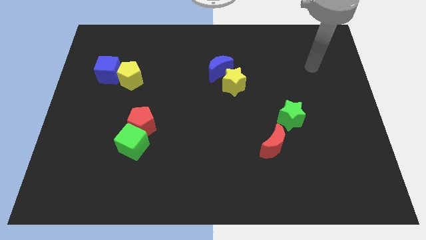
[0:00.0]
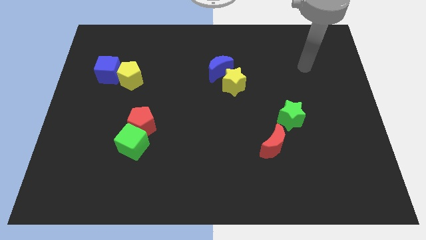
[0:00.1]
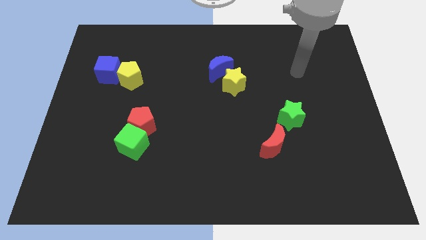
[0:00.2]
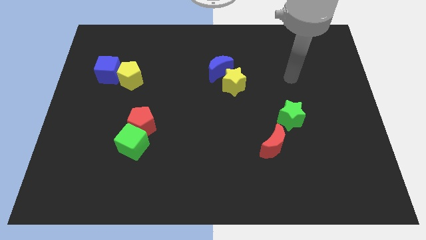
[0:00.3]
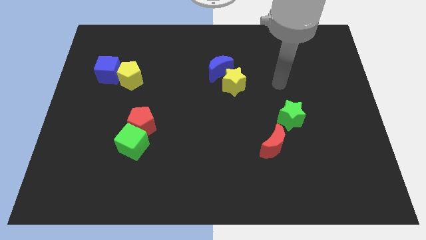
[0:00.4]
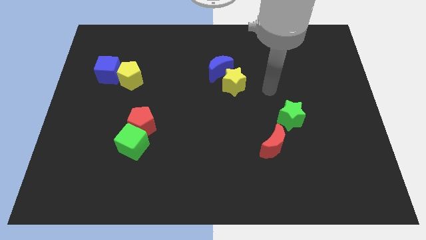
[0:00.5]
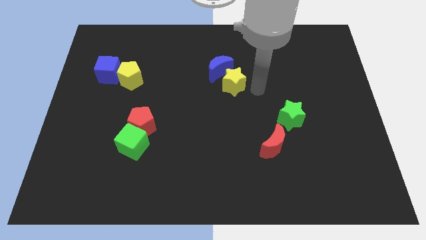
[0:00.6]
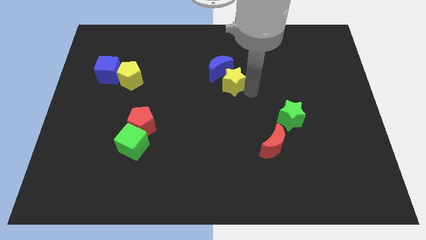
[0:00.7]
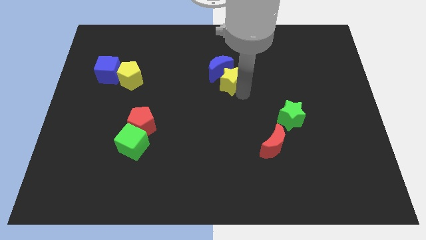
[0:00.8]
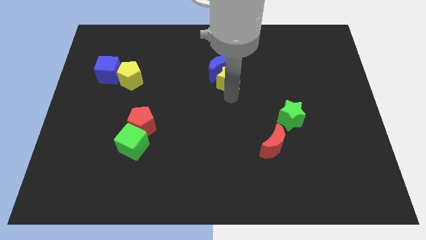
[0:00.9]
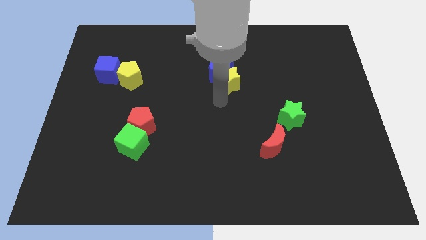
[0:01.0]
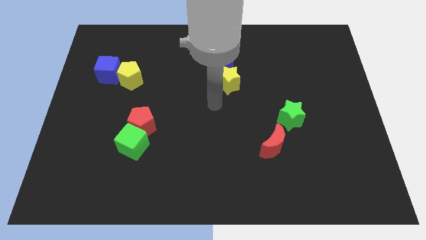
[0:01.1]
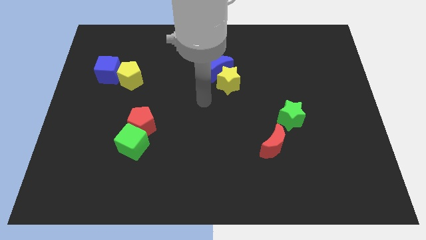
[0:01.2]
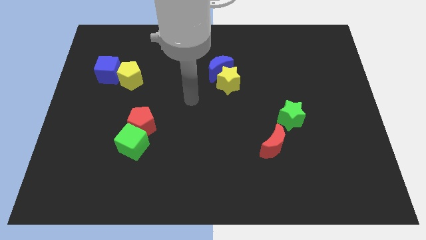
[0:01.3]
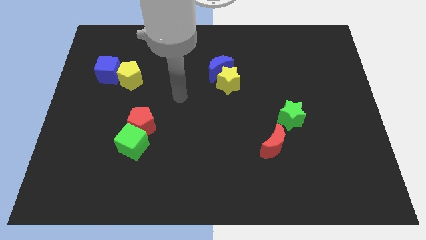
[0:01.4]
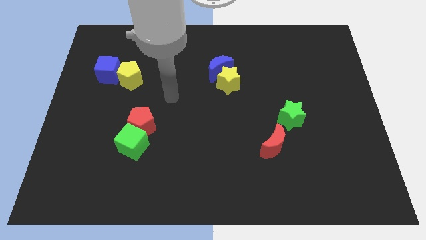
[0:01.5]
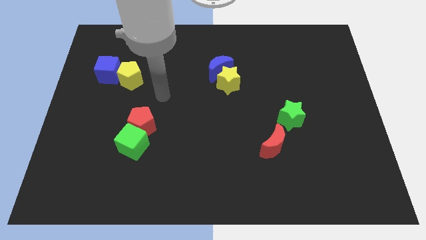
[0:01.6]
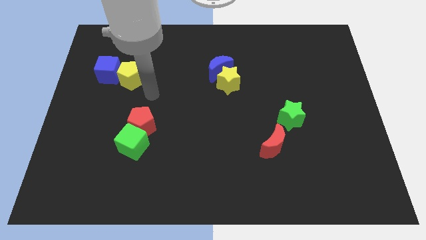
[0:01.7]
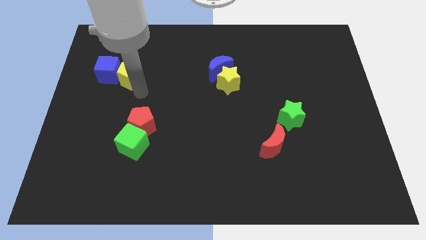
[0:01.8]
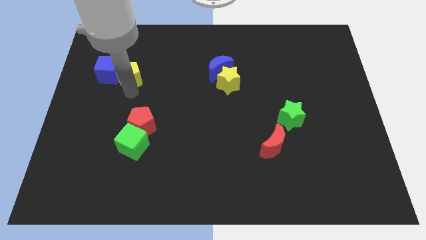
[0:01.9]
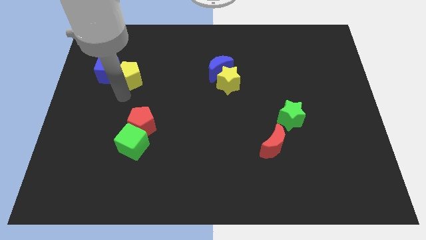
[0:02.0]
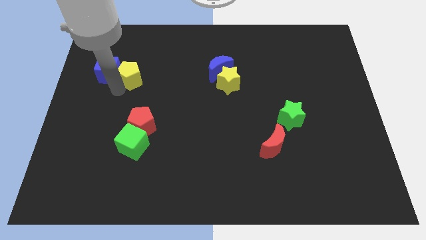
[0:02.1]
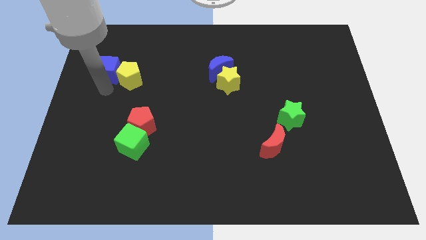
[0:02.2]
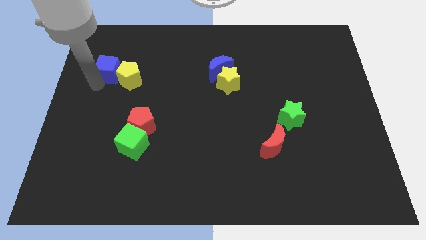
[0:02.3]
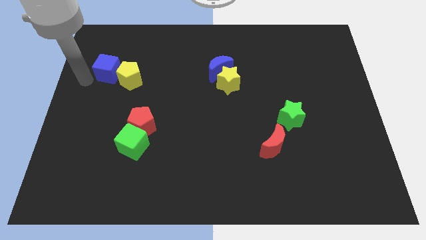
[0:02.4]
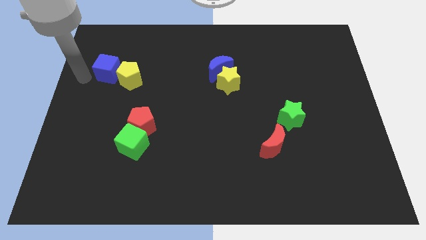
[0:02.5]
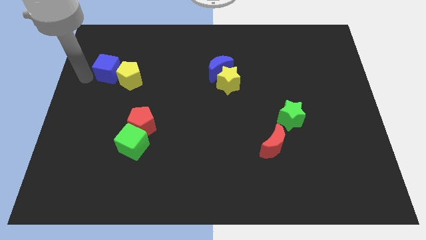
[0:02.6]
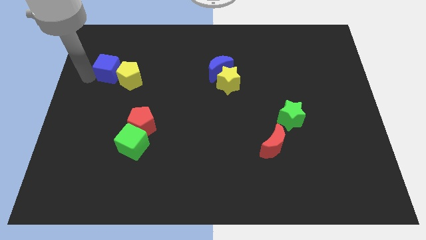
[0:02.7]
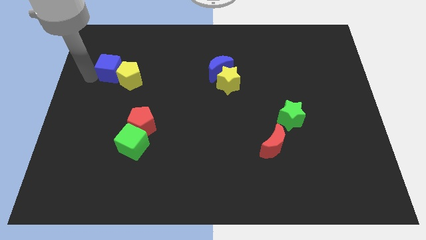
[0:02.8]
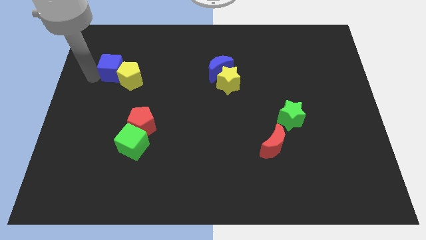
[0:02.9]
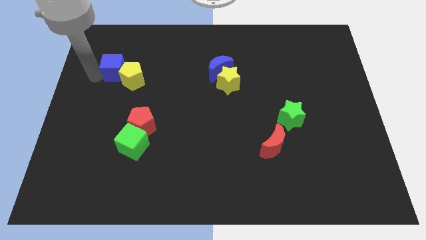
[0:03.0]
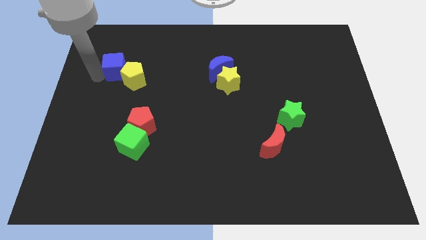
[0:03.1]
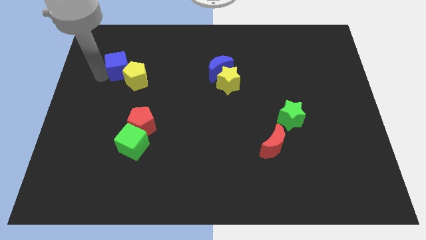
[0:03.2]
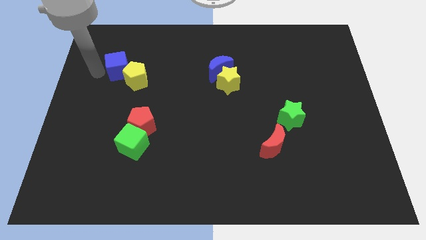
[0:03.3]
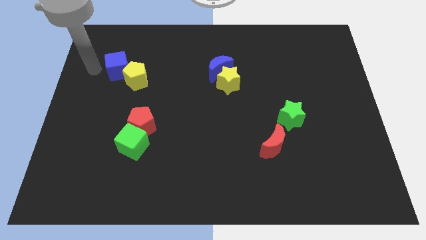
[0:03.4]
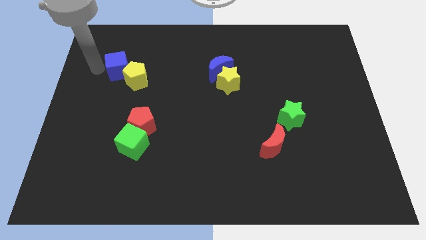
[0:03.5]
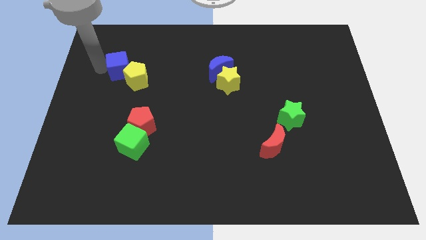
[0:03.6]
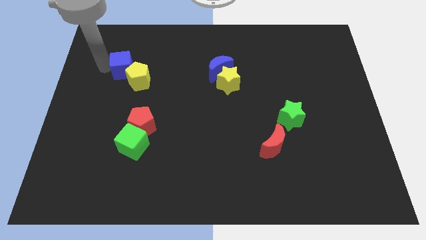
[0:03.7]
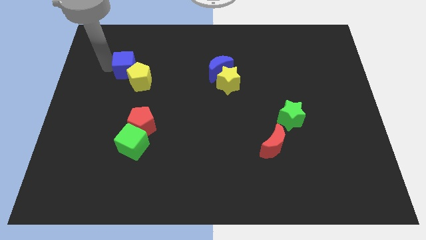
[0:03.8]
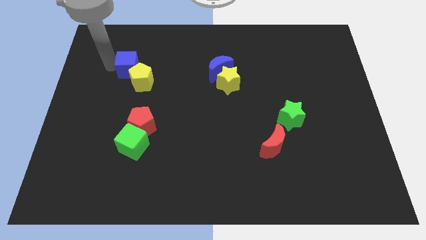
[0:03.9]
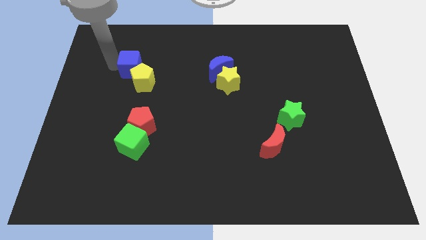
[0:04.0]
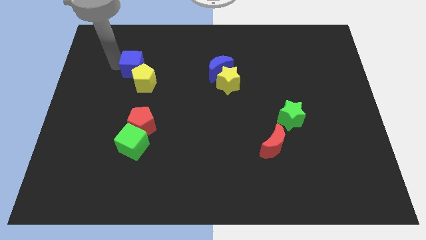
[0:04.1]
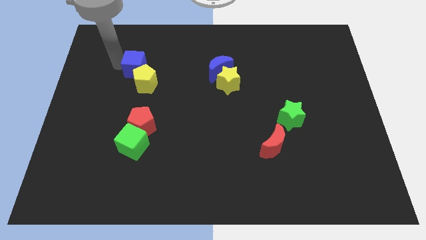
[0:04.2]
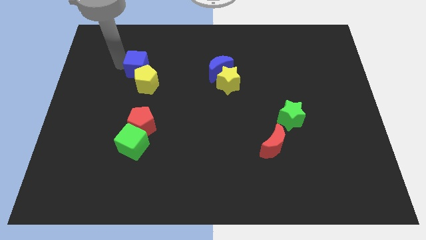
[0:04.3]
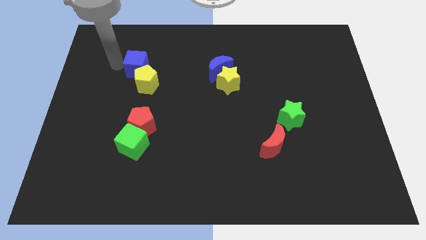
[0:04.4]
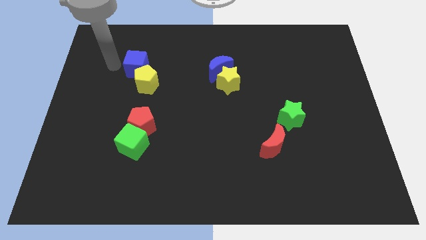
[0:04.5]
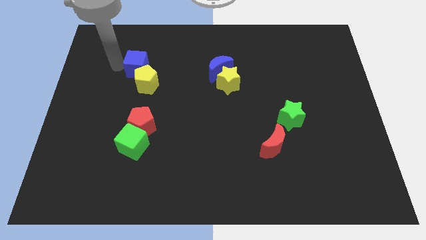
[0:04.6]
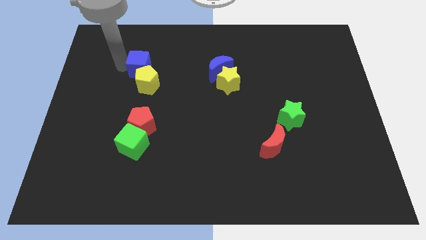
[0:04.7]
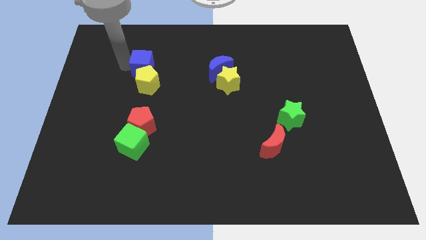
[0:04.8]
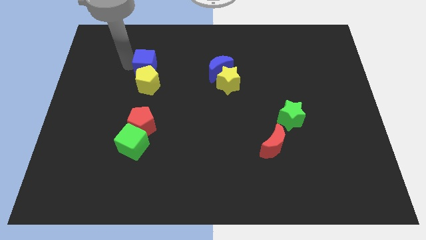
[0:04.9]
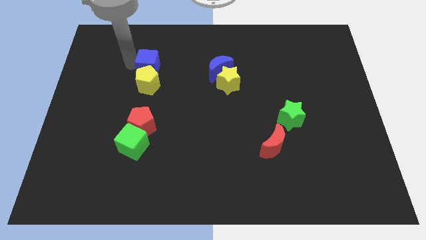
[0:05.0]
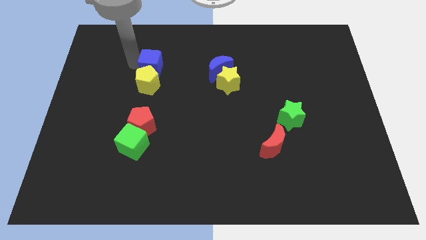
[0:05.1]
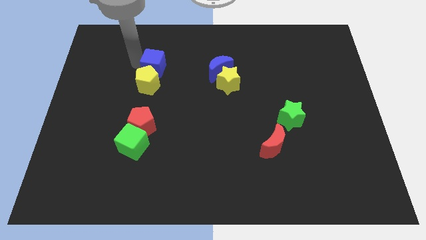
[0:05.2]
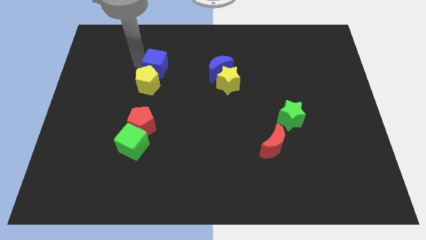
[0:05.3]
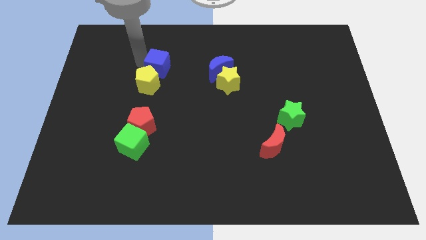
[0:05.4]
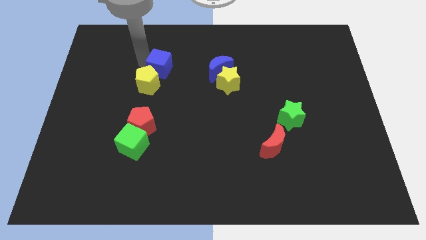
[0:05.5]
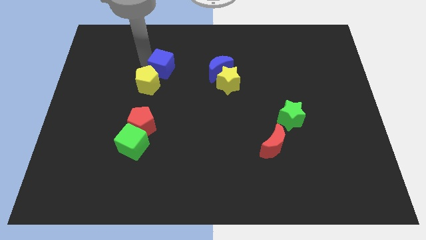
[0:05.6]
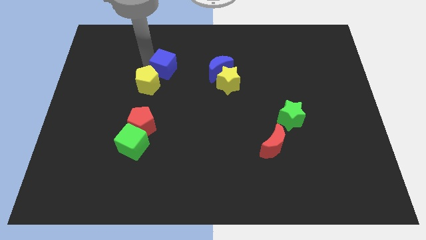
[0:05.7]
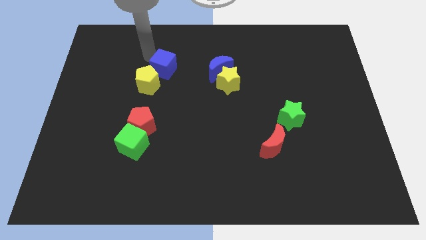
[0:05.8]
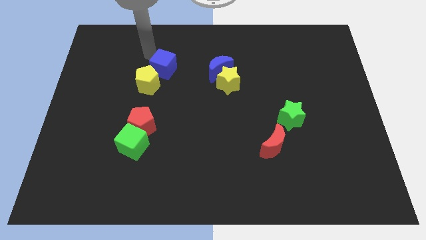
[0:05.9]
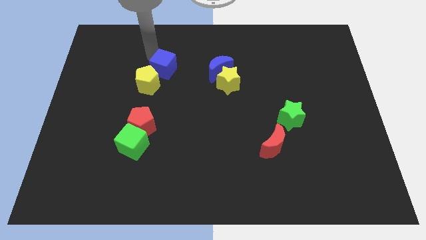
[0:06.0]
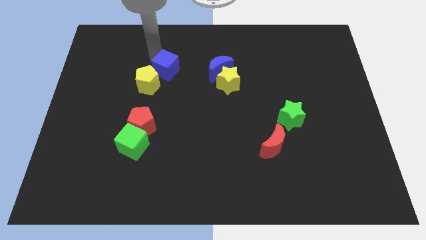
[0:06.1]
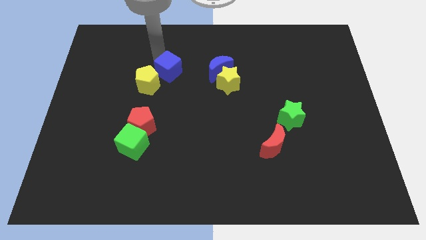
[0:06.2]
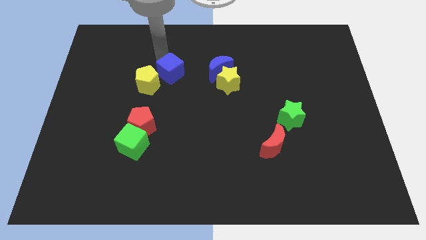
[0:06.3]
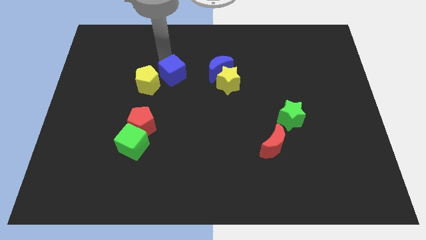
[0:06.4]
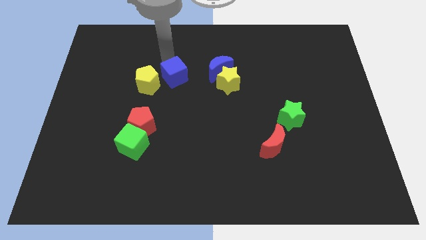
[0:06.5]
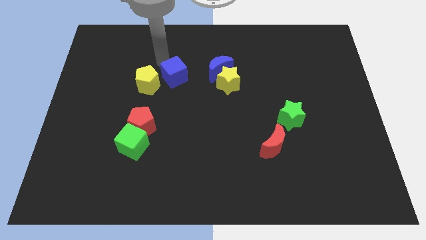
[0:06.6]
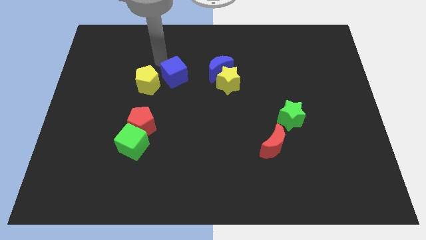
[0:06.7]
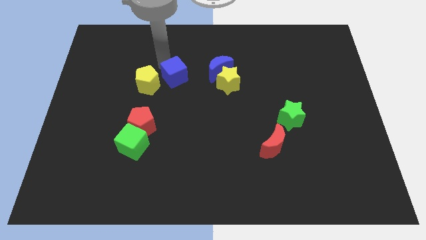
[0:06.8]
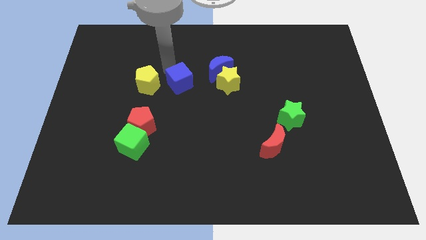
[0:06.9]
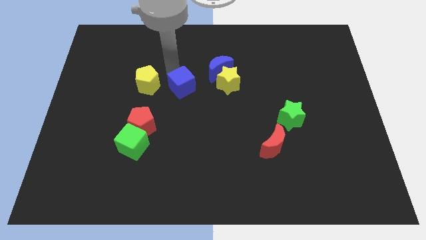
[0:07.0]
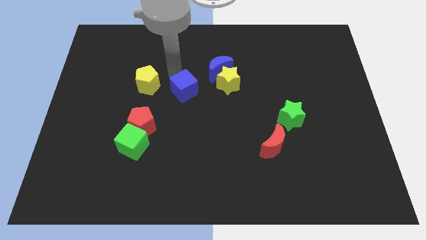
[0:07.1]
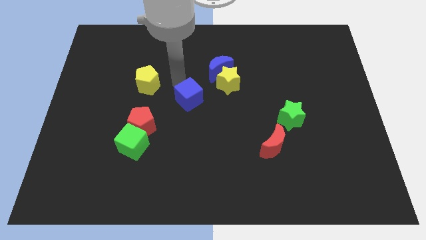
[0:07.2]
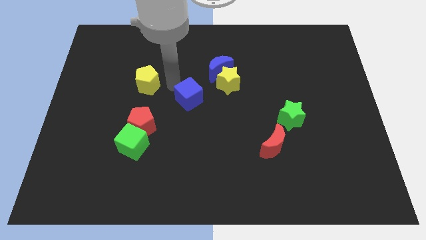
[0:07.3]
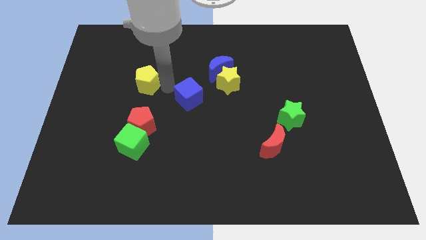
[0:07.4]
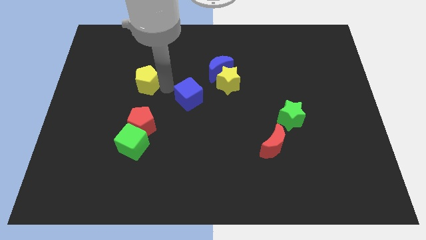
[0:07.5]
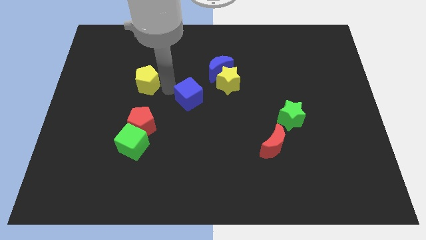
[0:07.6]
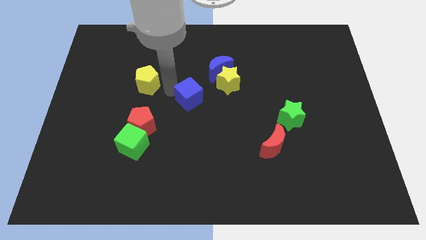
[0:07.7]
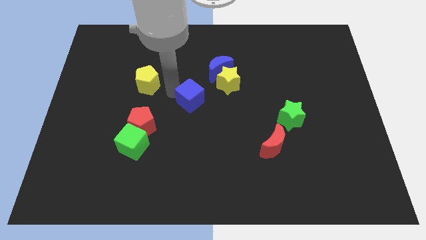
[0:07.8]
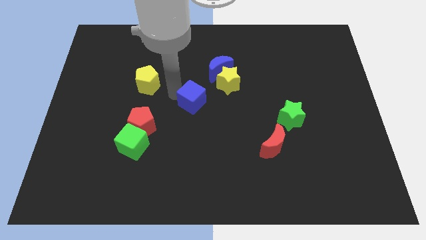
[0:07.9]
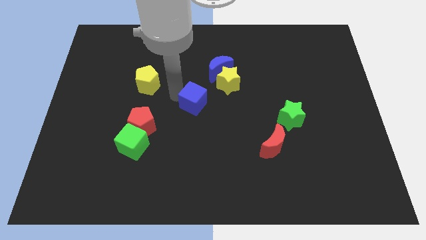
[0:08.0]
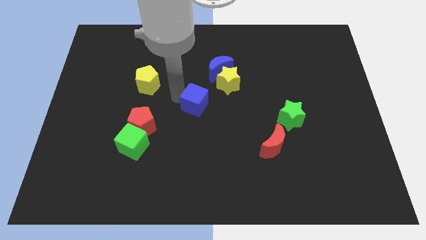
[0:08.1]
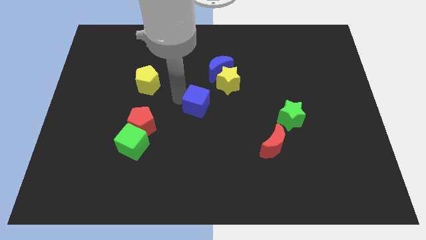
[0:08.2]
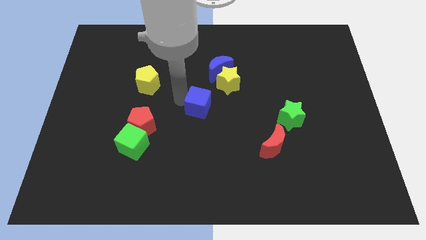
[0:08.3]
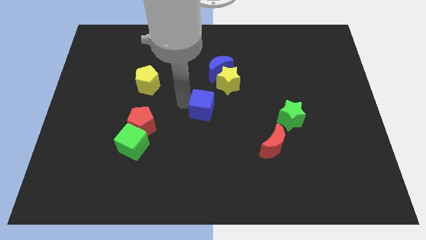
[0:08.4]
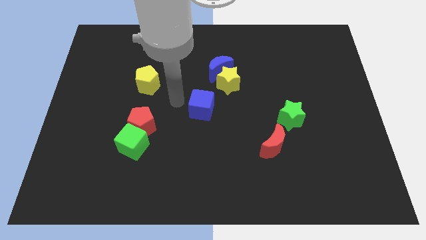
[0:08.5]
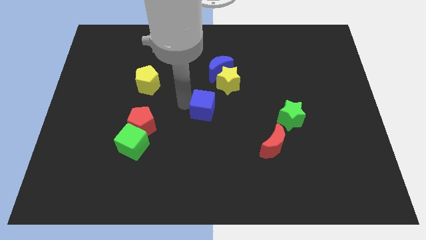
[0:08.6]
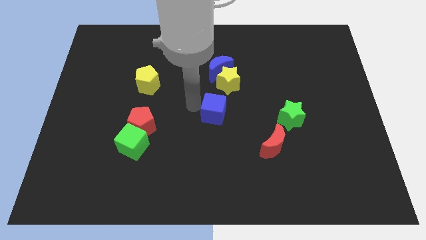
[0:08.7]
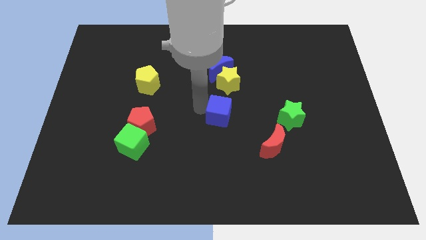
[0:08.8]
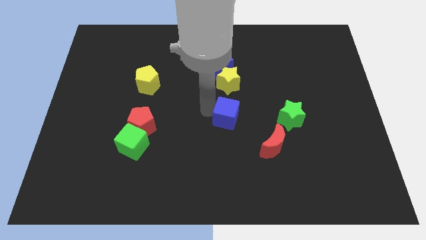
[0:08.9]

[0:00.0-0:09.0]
move the blue cube to the left of the green star
